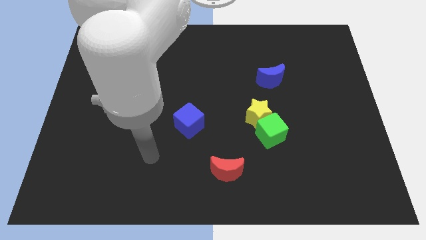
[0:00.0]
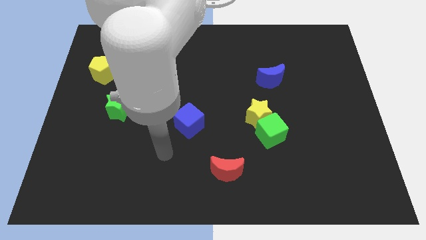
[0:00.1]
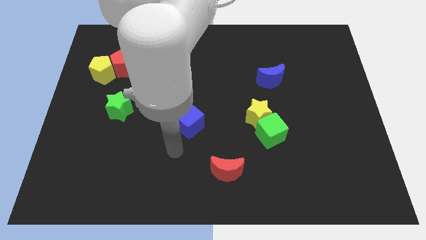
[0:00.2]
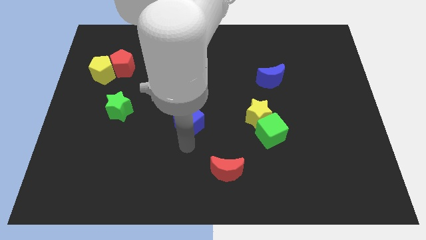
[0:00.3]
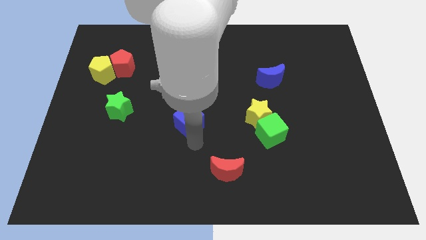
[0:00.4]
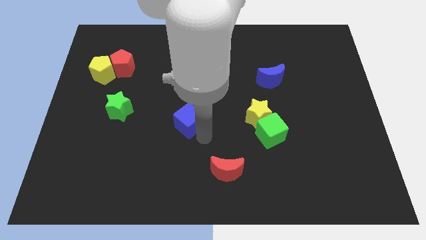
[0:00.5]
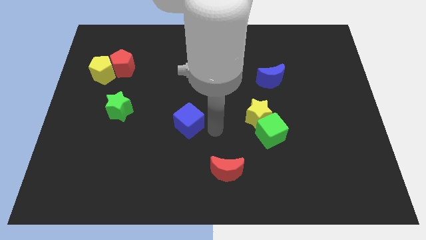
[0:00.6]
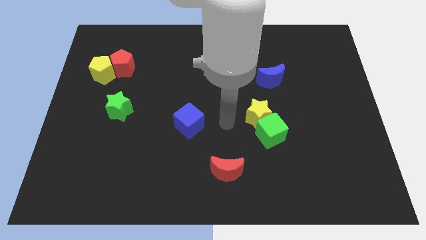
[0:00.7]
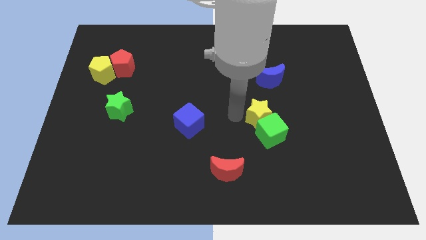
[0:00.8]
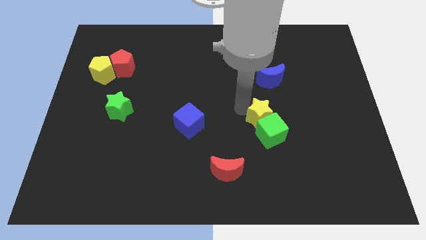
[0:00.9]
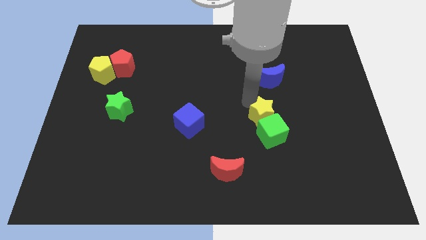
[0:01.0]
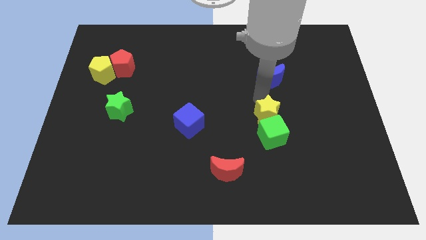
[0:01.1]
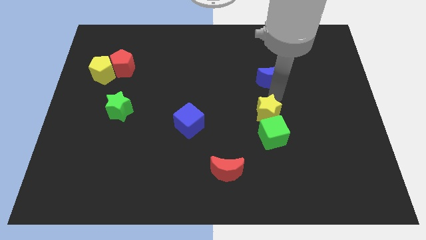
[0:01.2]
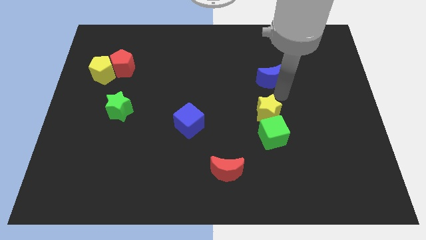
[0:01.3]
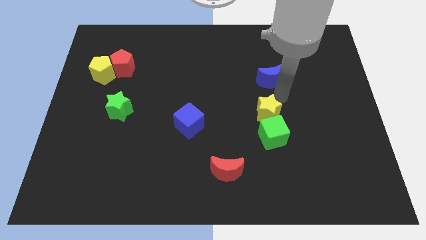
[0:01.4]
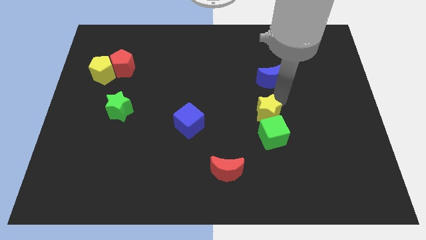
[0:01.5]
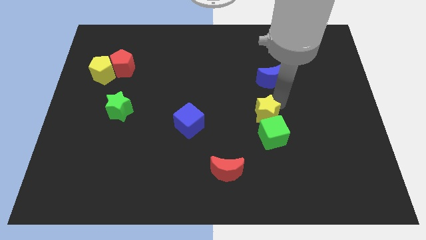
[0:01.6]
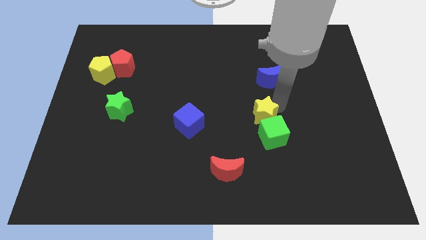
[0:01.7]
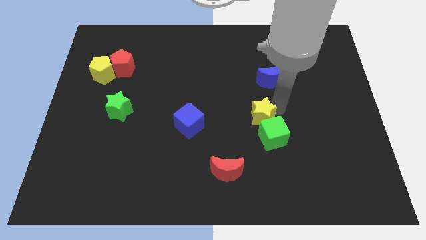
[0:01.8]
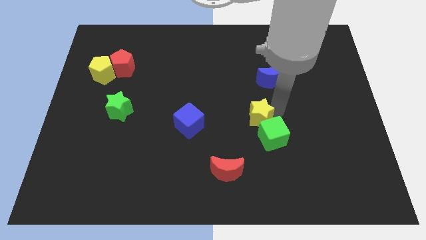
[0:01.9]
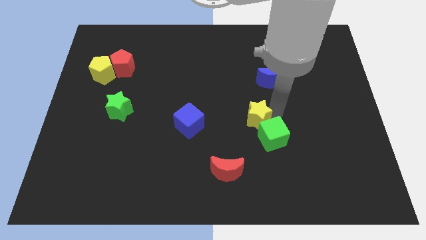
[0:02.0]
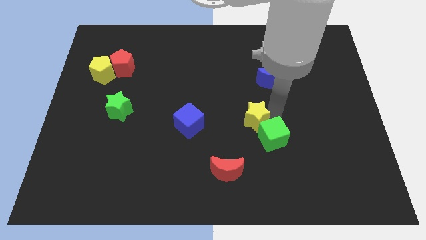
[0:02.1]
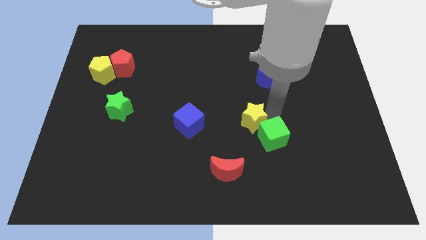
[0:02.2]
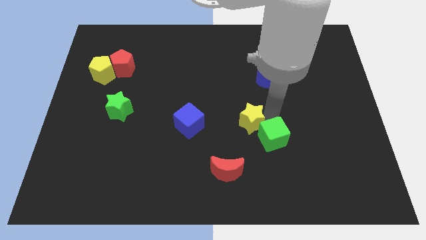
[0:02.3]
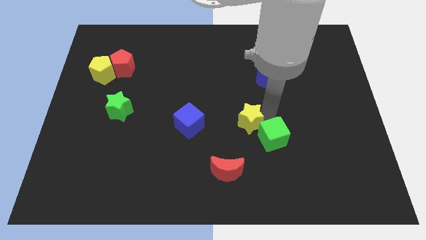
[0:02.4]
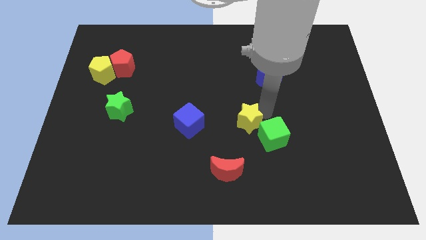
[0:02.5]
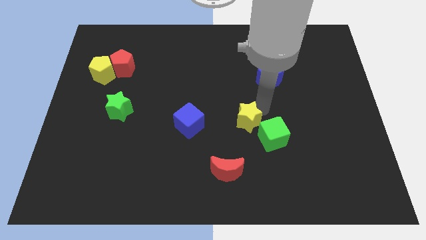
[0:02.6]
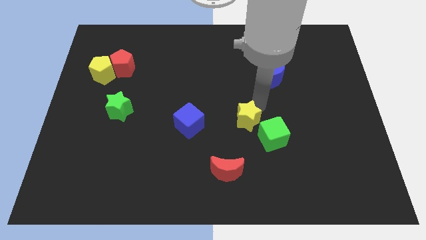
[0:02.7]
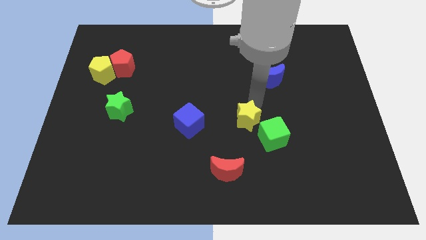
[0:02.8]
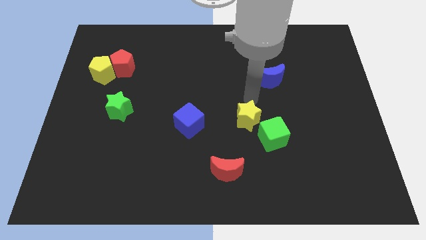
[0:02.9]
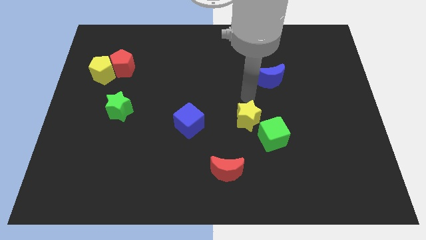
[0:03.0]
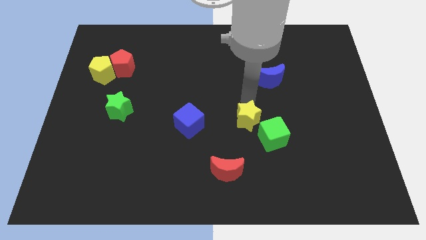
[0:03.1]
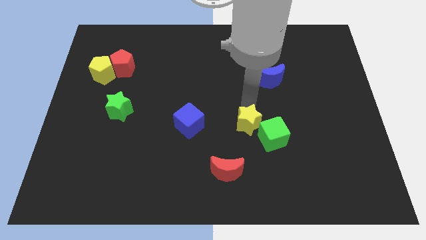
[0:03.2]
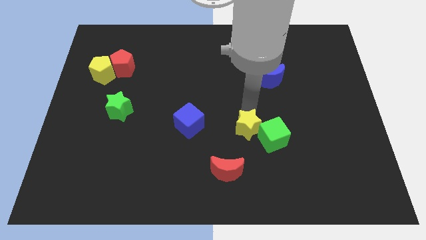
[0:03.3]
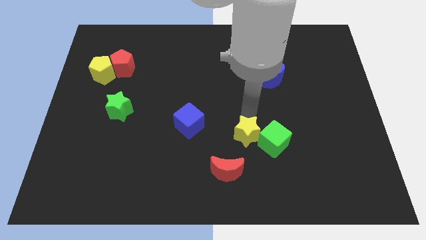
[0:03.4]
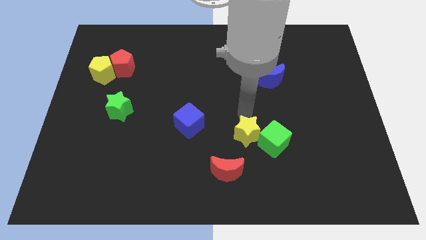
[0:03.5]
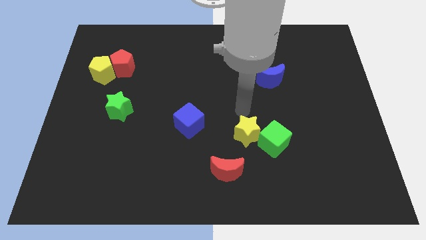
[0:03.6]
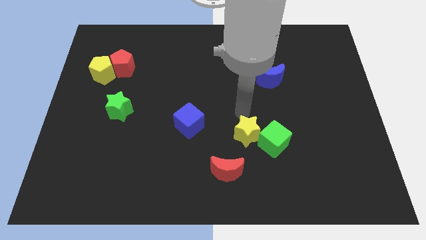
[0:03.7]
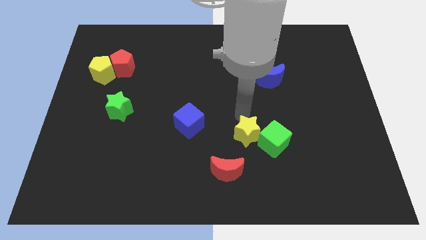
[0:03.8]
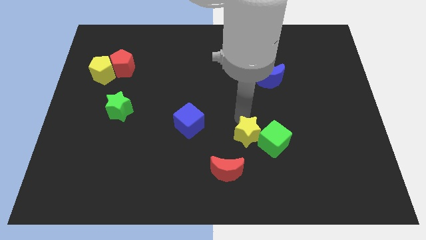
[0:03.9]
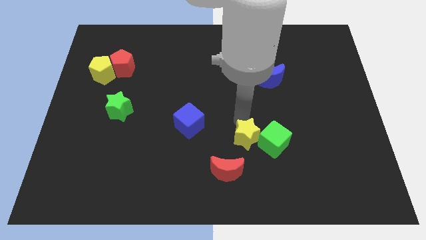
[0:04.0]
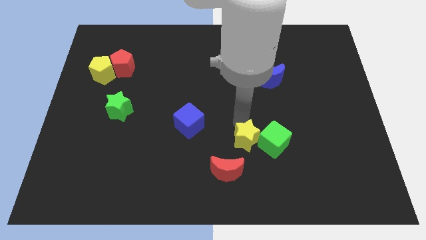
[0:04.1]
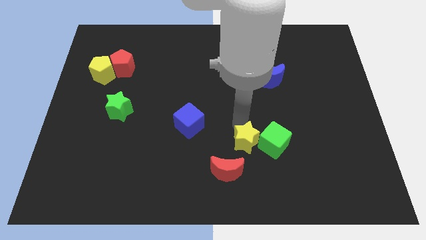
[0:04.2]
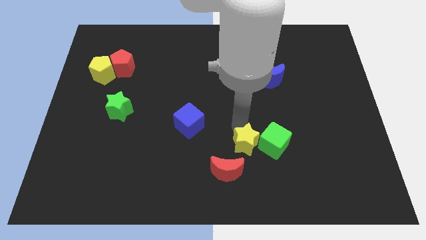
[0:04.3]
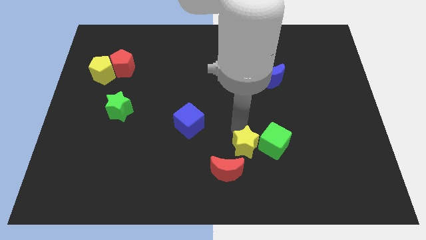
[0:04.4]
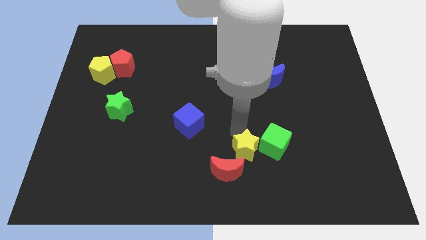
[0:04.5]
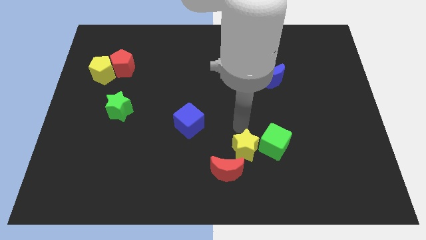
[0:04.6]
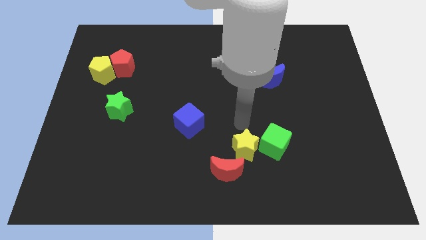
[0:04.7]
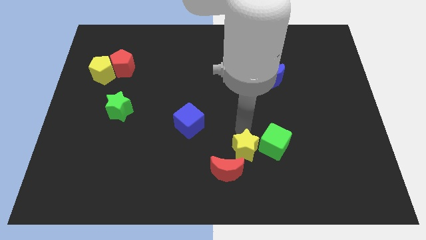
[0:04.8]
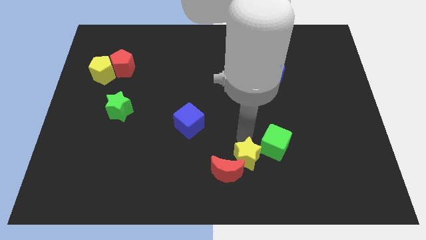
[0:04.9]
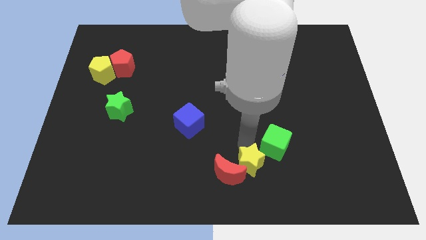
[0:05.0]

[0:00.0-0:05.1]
push the yellow star to the bottom

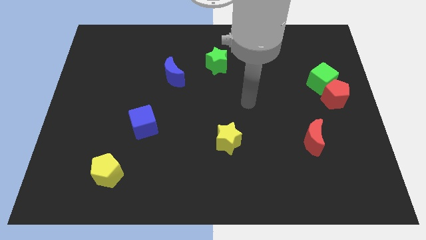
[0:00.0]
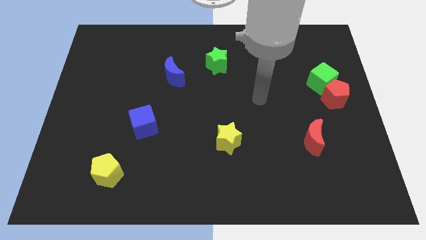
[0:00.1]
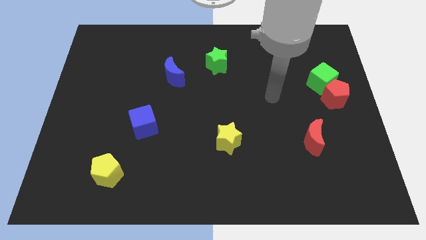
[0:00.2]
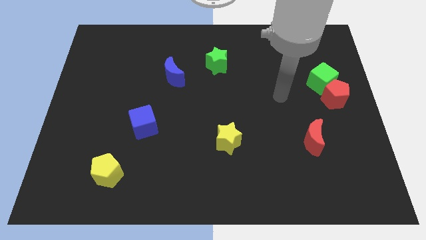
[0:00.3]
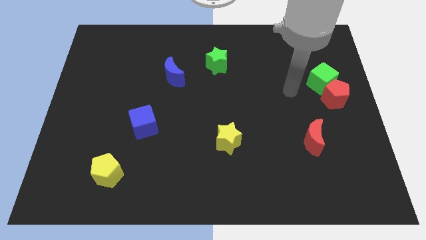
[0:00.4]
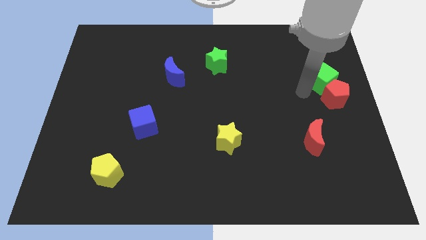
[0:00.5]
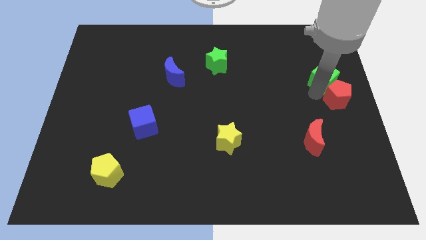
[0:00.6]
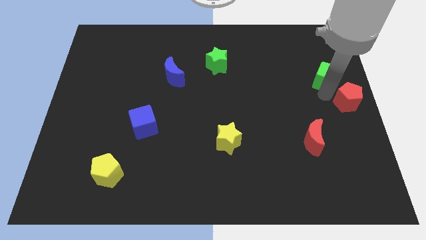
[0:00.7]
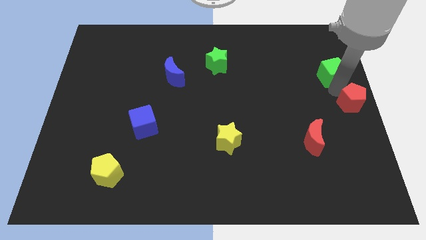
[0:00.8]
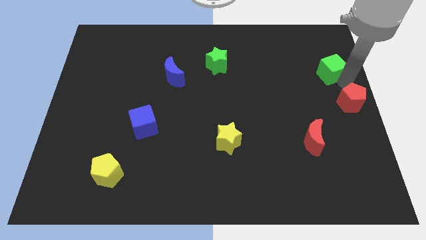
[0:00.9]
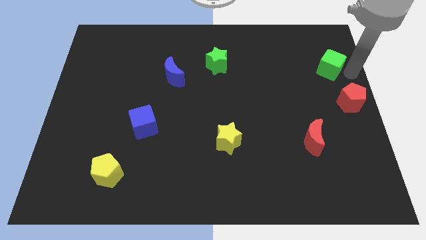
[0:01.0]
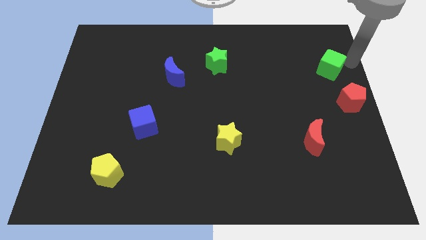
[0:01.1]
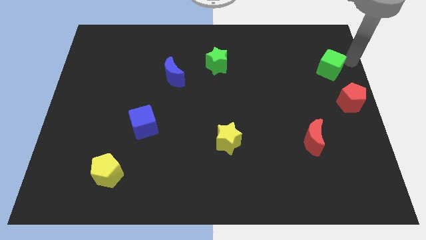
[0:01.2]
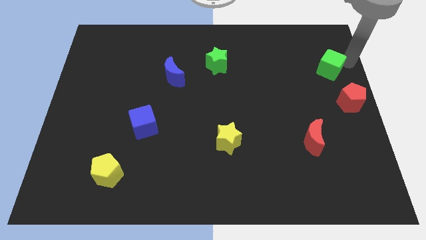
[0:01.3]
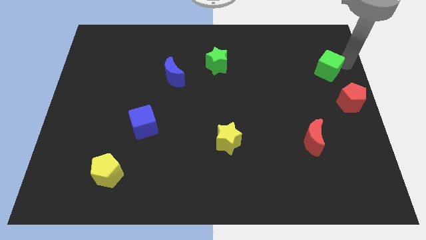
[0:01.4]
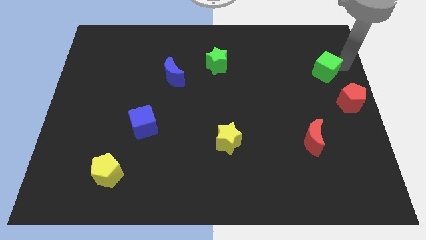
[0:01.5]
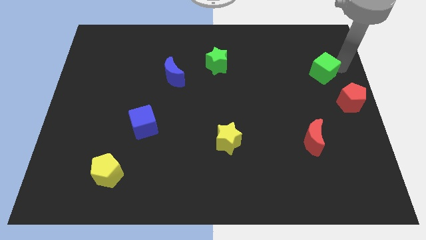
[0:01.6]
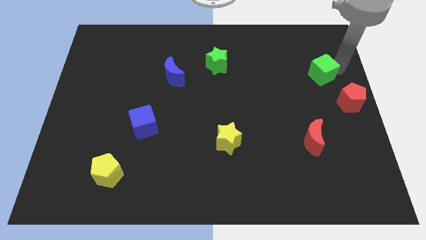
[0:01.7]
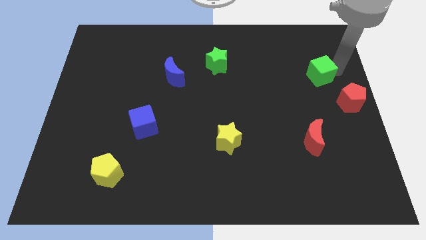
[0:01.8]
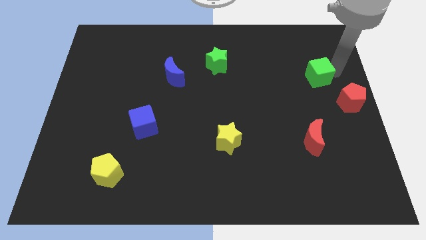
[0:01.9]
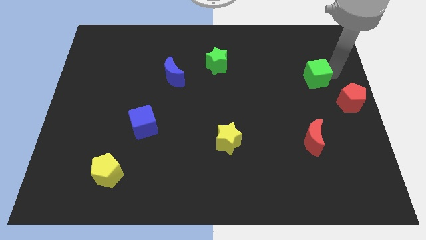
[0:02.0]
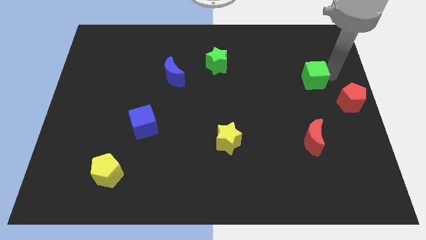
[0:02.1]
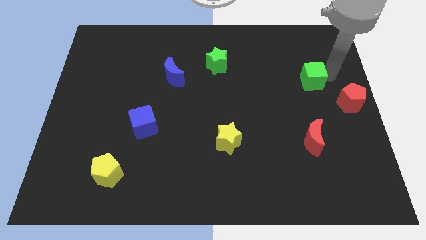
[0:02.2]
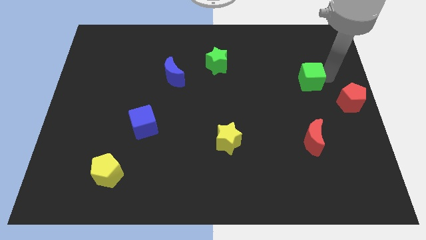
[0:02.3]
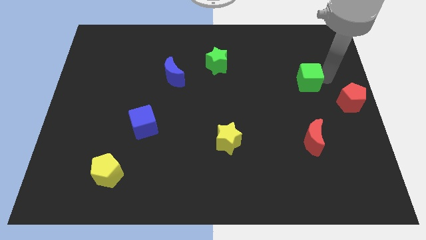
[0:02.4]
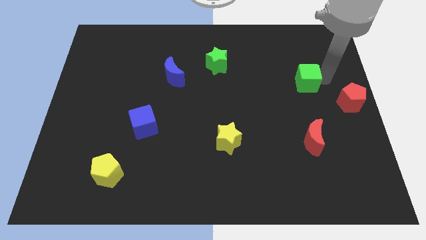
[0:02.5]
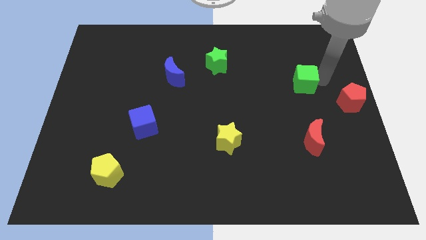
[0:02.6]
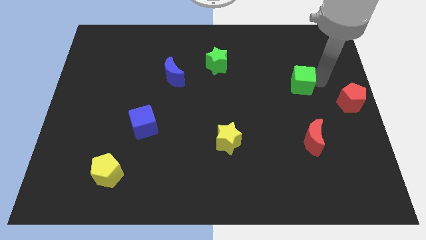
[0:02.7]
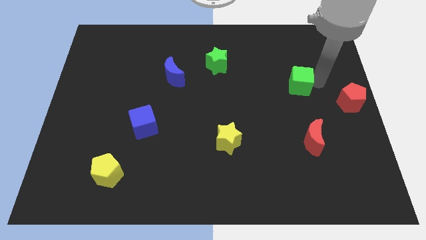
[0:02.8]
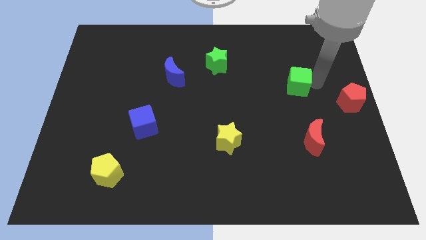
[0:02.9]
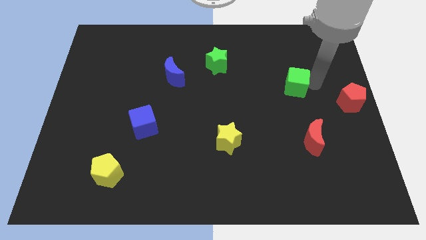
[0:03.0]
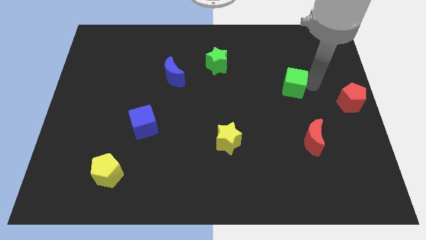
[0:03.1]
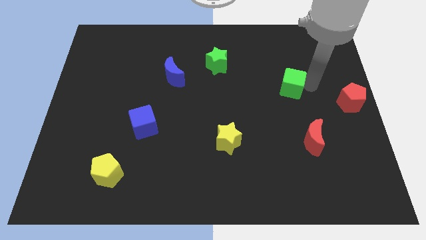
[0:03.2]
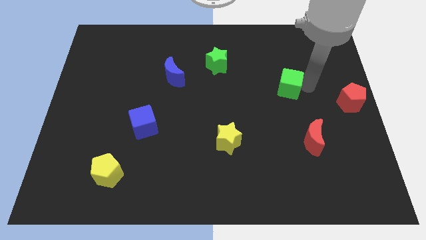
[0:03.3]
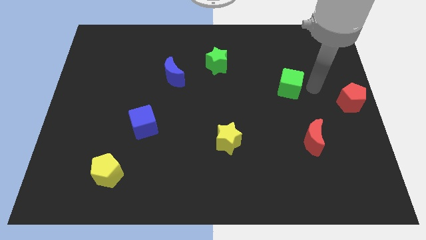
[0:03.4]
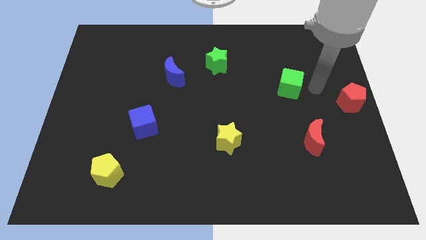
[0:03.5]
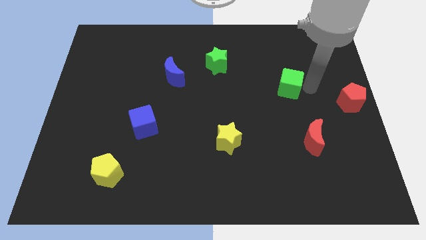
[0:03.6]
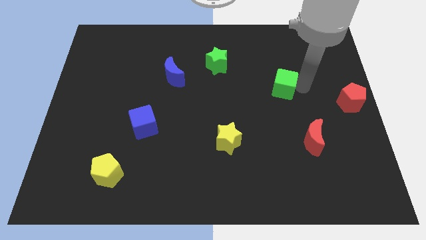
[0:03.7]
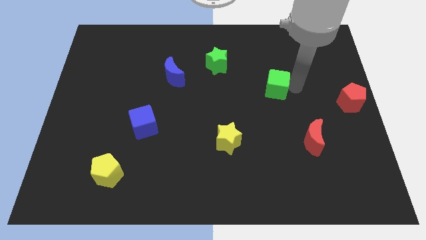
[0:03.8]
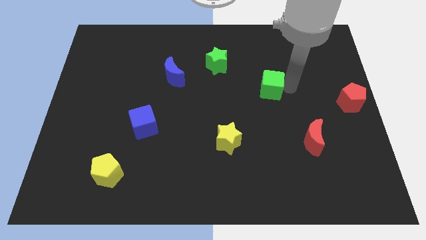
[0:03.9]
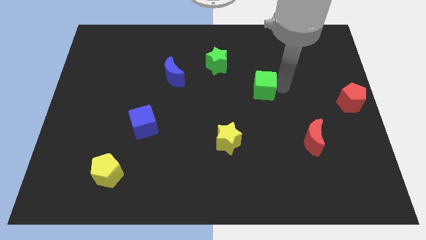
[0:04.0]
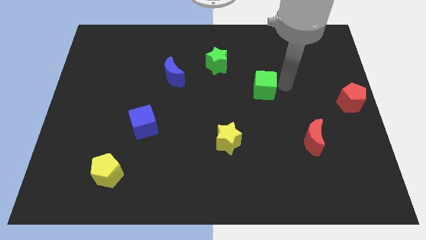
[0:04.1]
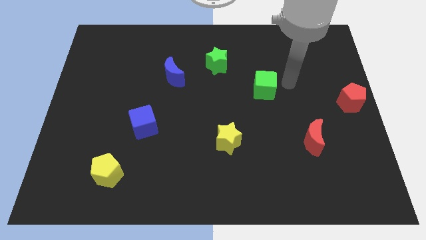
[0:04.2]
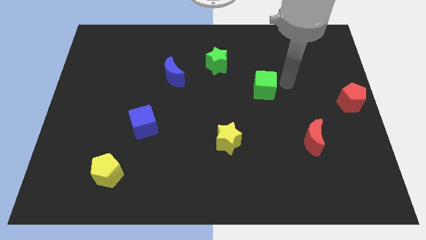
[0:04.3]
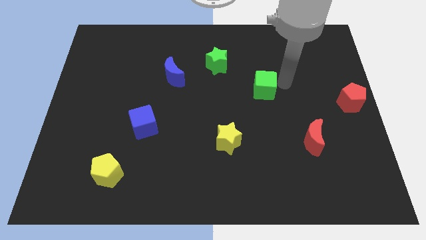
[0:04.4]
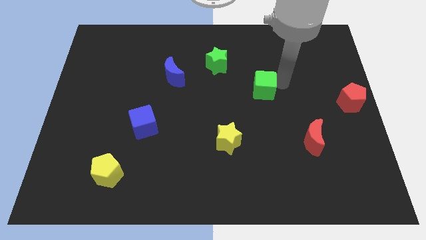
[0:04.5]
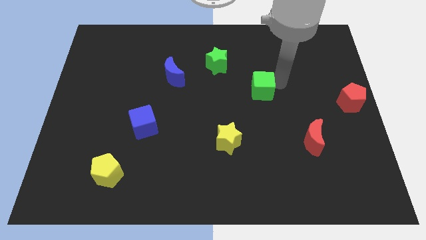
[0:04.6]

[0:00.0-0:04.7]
push the green cube to the center
